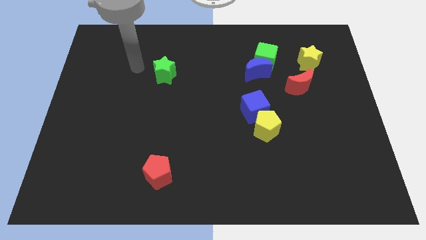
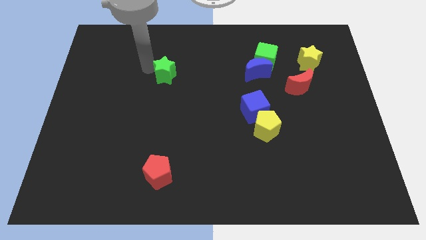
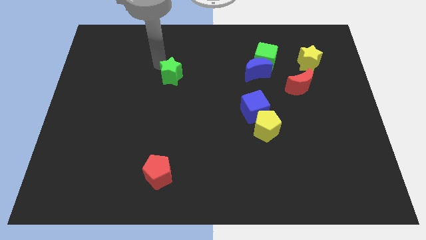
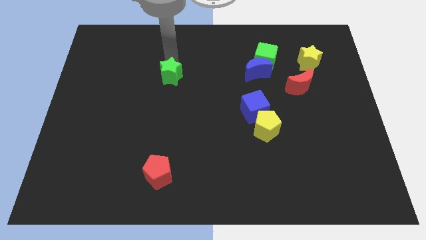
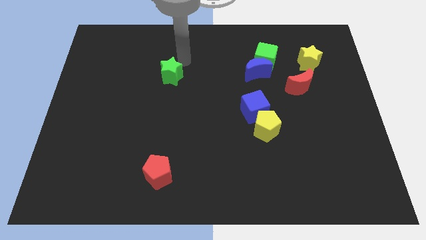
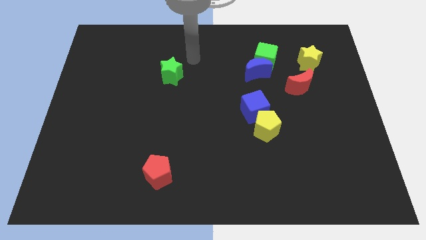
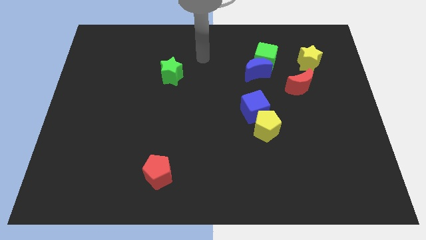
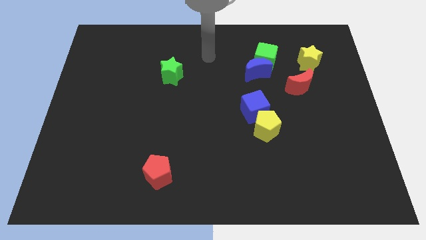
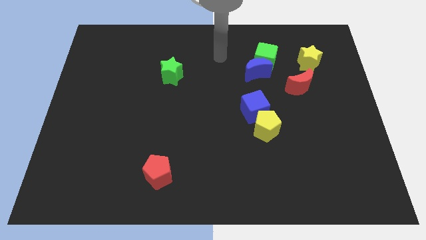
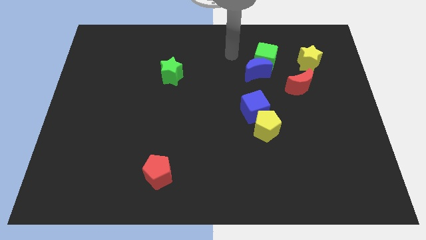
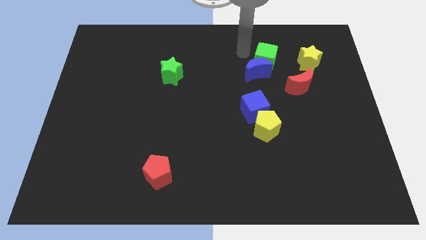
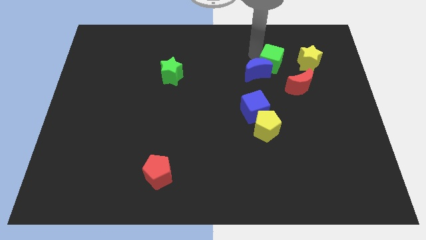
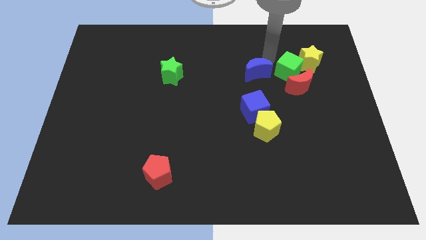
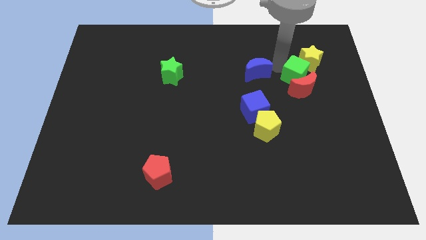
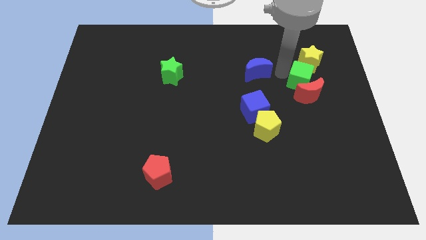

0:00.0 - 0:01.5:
pull the blue moon apart from the green cube

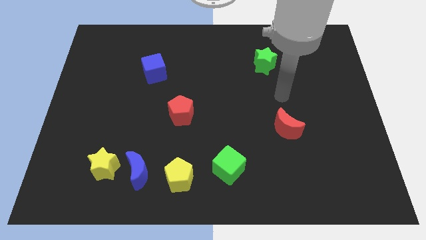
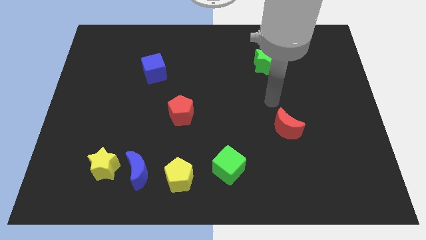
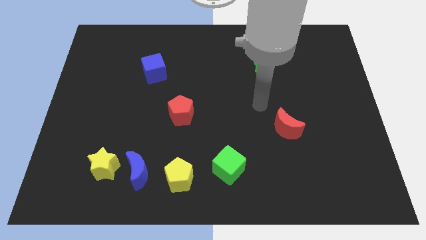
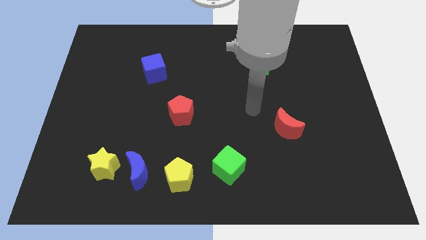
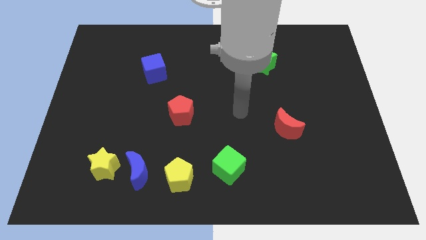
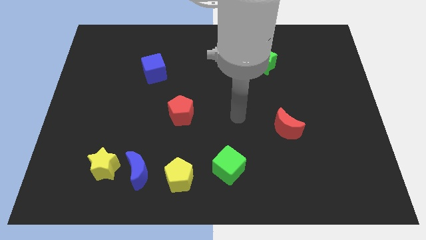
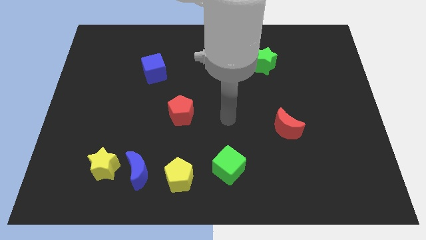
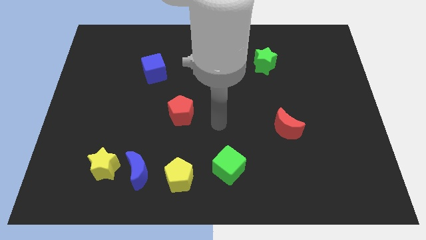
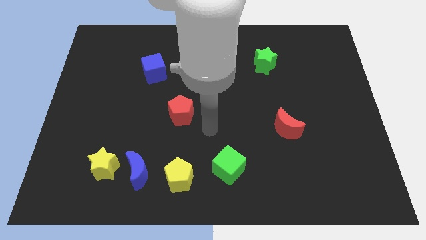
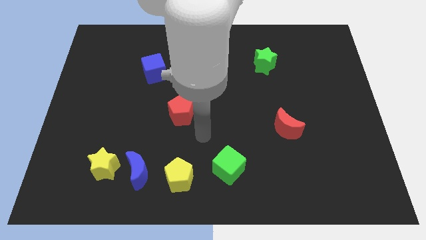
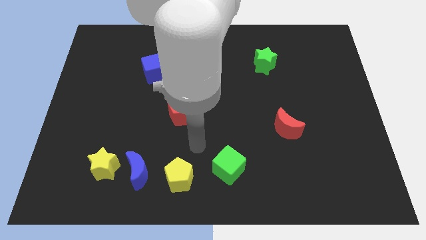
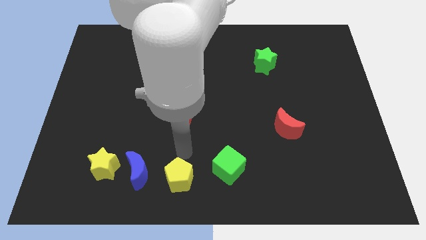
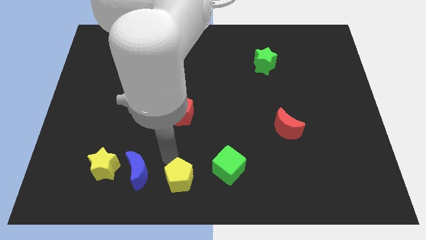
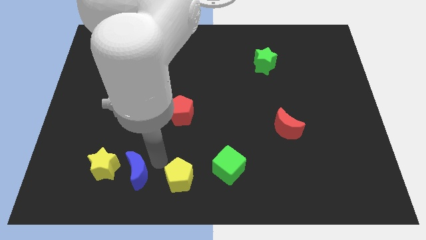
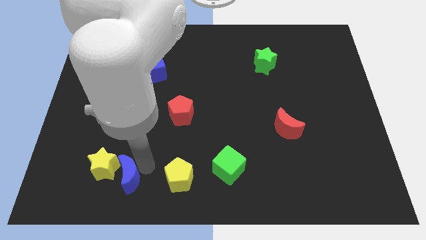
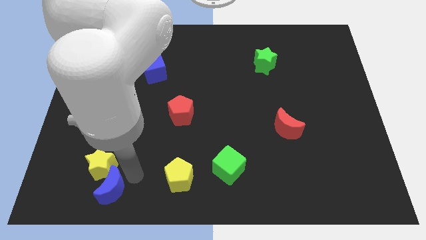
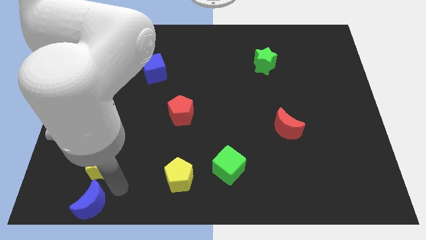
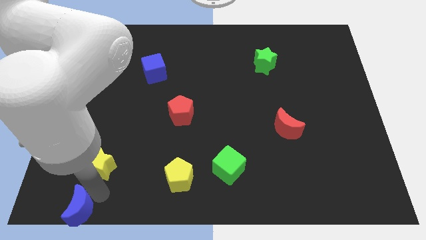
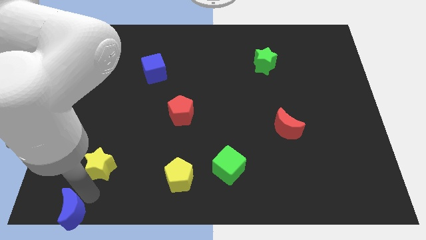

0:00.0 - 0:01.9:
move the yellow star away from the blue moon

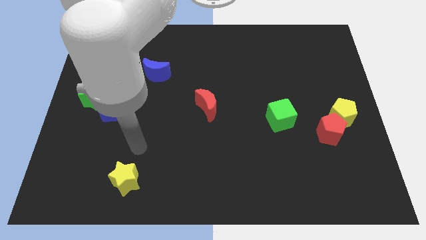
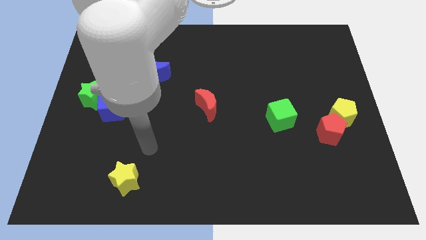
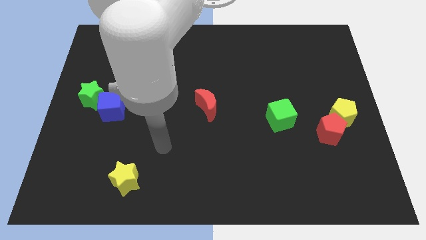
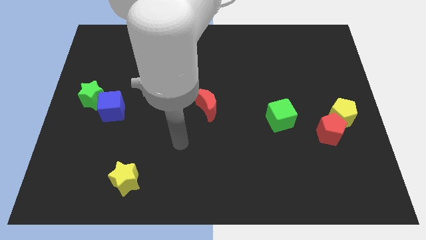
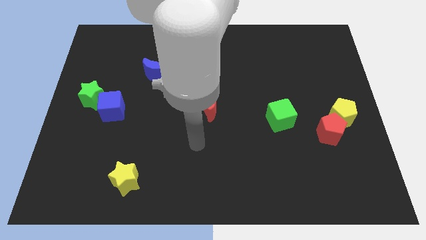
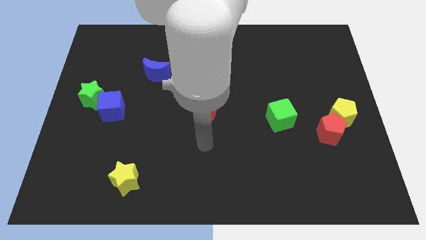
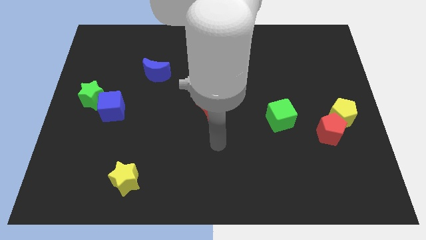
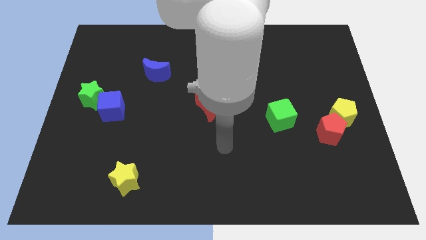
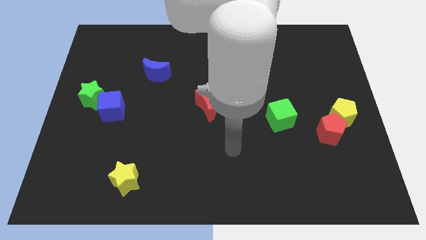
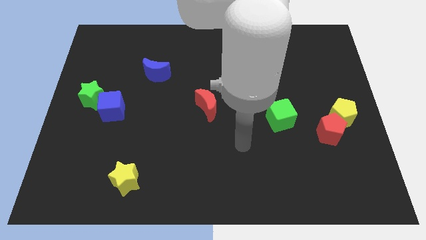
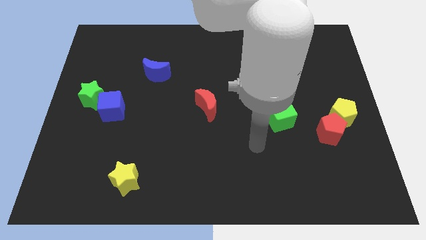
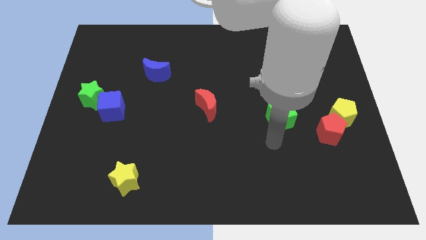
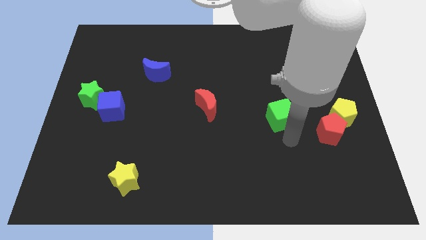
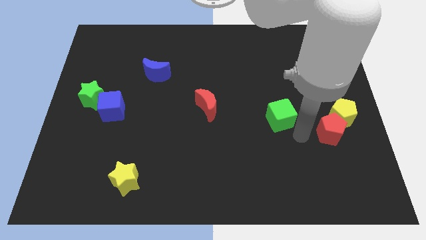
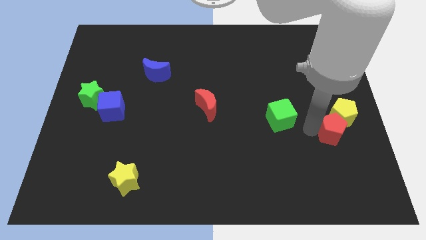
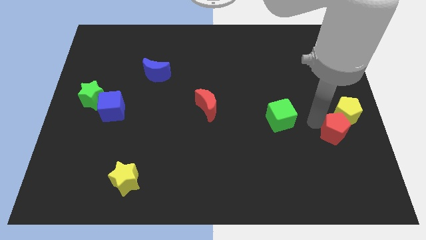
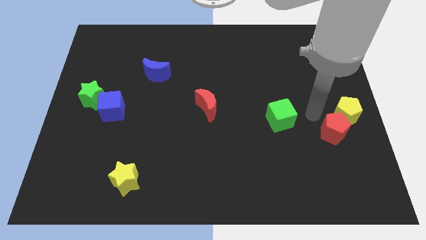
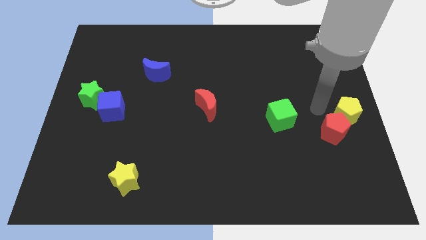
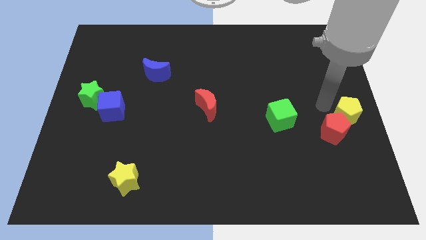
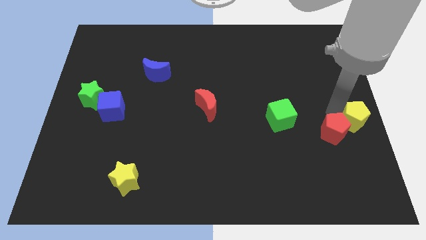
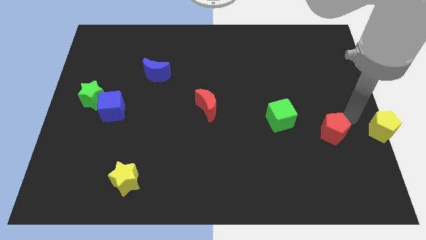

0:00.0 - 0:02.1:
separate the red pentagon from the yellow pentagon

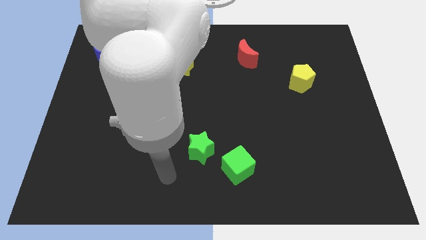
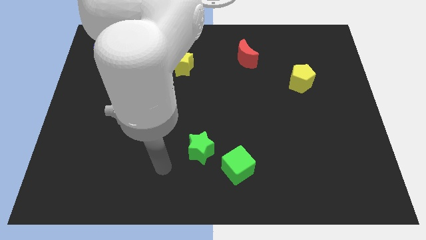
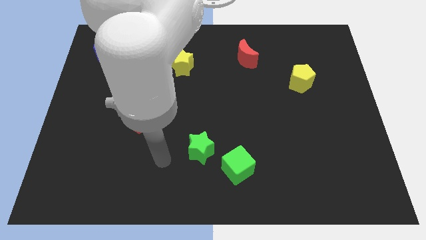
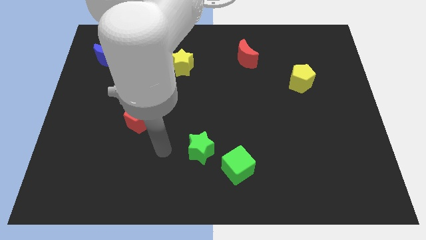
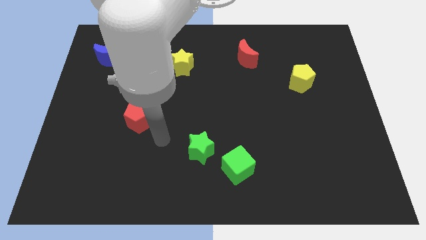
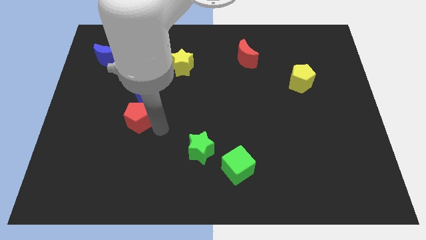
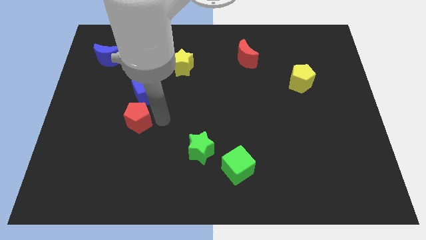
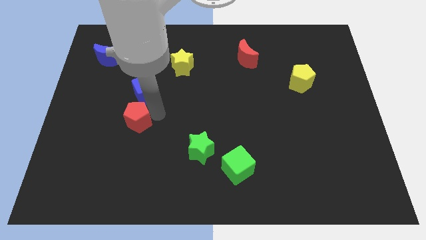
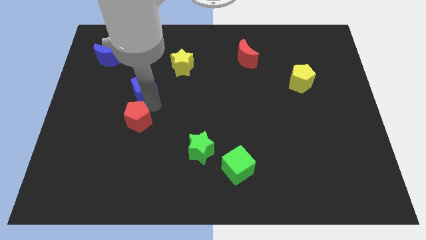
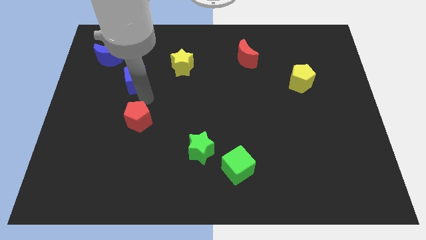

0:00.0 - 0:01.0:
move the red pentagon away from the blue cube

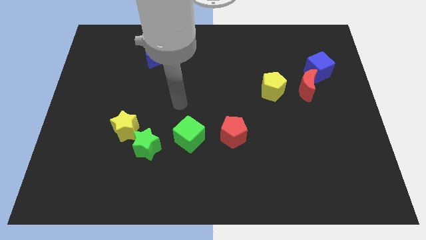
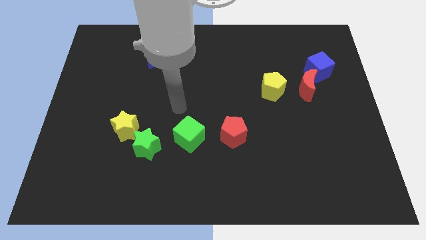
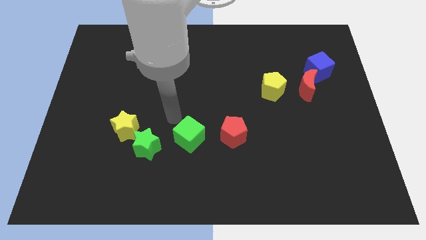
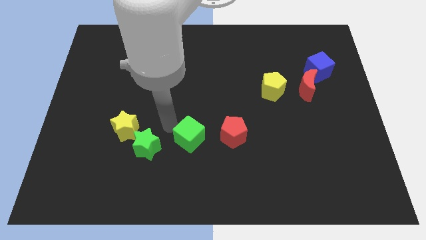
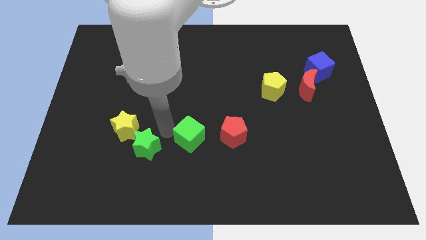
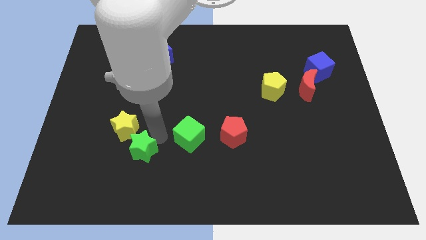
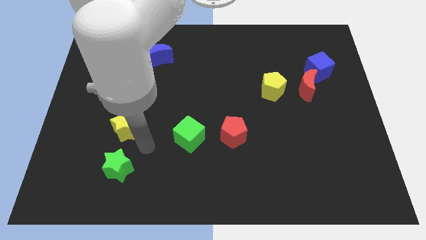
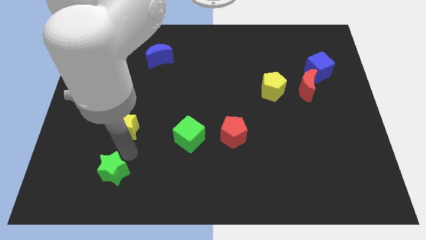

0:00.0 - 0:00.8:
move the yellow star away from the green star

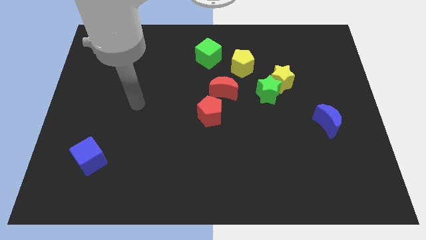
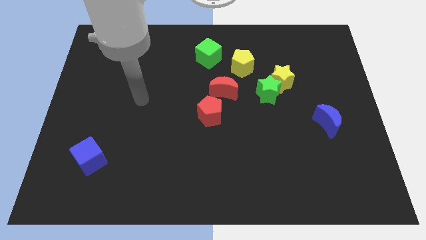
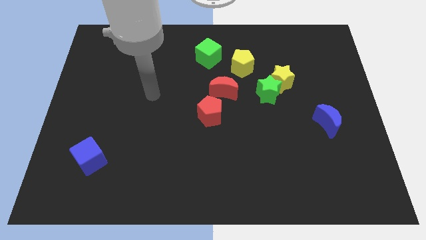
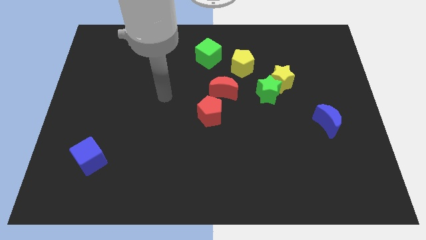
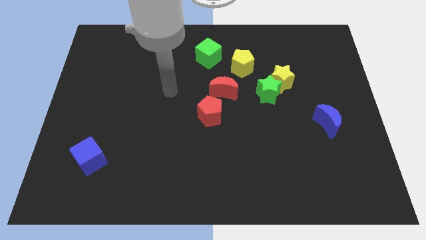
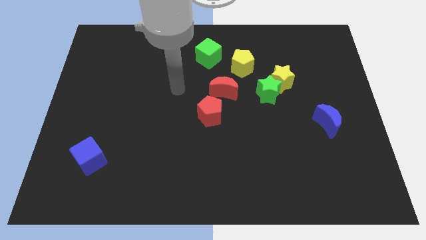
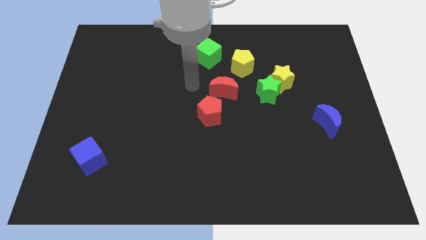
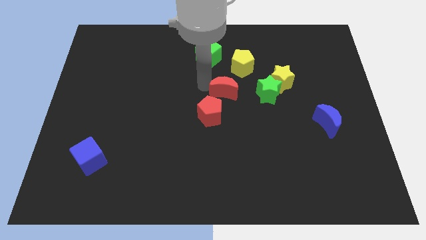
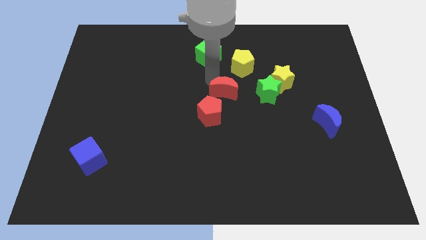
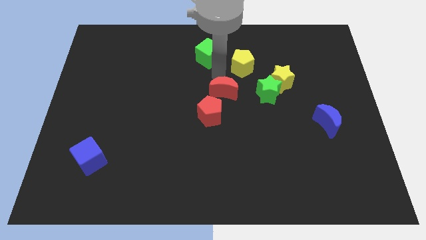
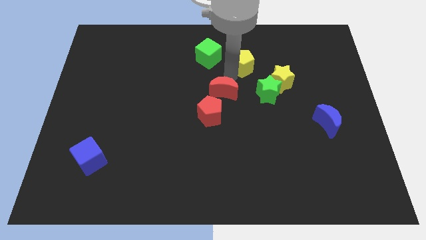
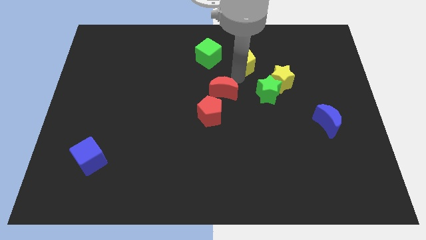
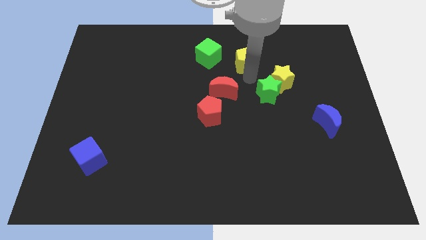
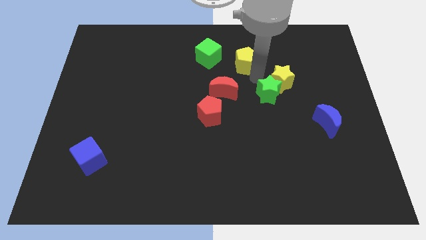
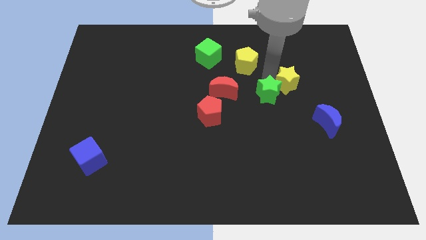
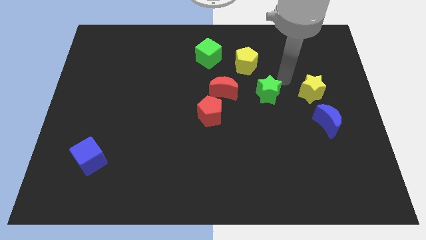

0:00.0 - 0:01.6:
separate the green star from the yellow star

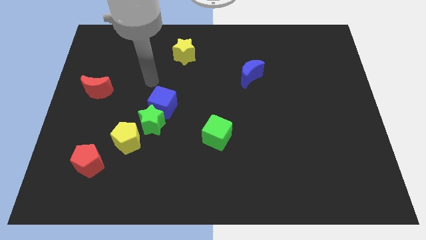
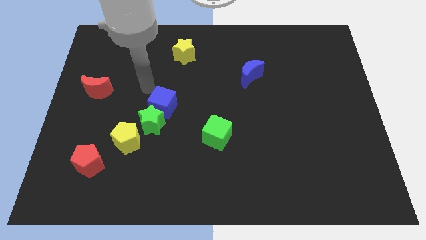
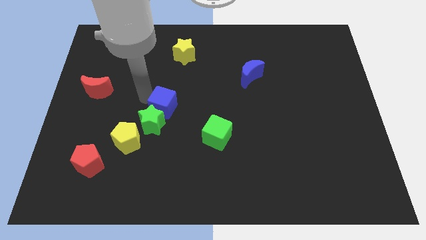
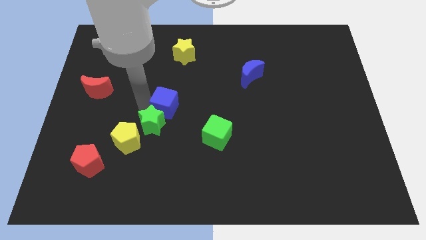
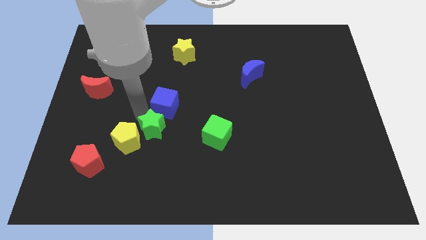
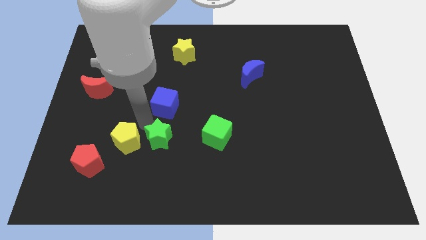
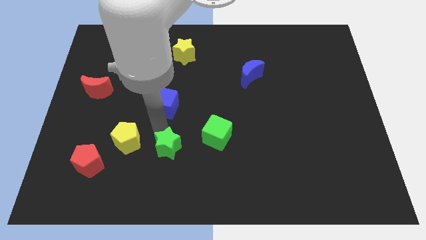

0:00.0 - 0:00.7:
move the blue cube away from the green star
